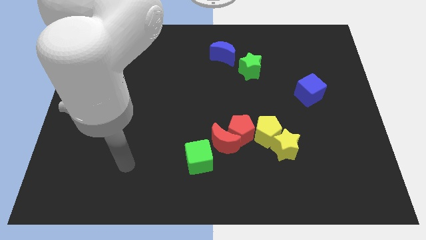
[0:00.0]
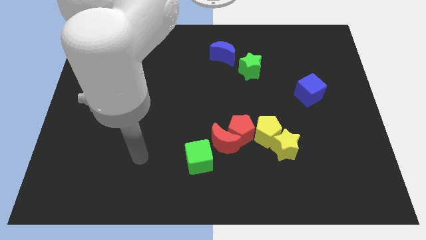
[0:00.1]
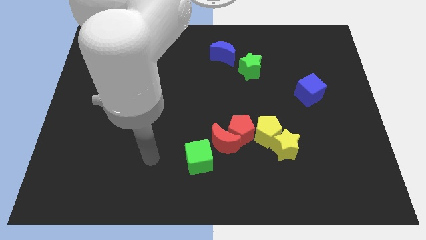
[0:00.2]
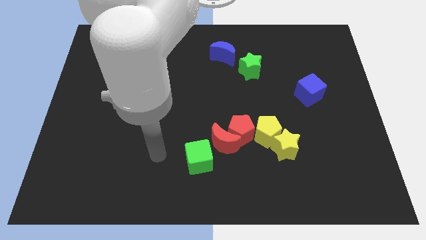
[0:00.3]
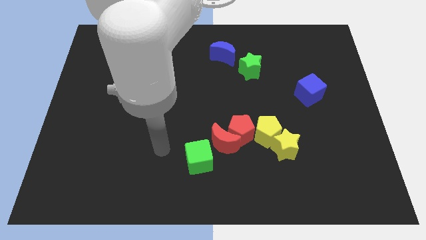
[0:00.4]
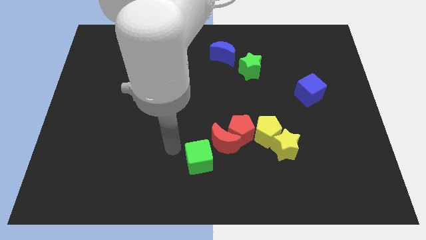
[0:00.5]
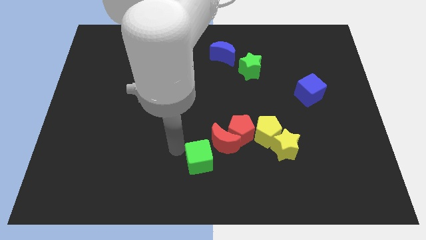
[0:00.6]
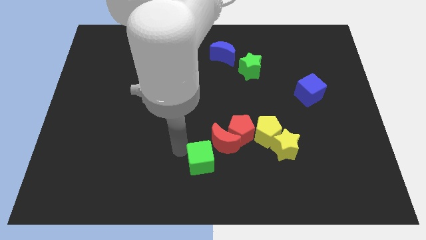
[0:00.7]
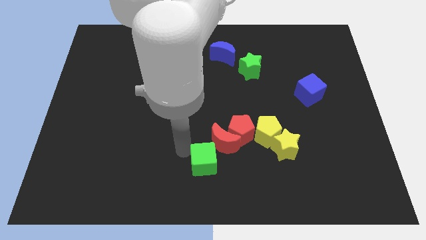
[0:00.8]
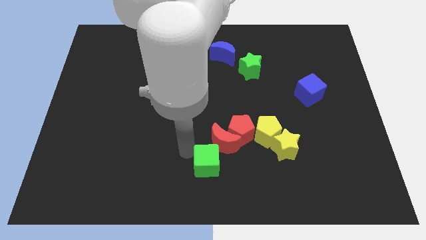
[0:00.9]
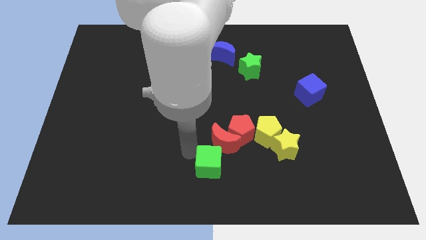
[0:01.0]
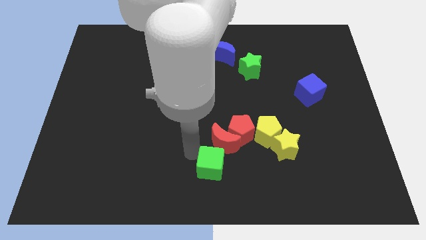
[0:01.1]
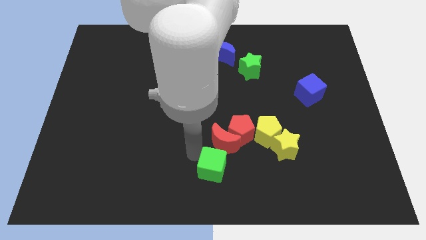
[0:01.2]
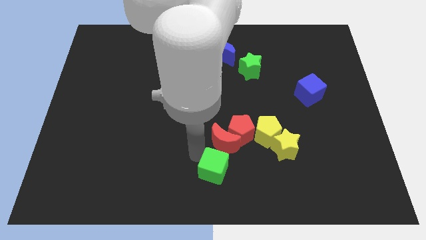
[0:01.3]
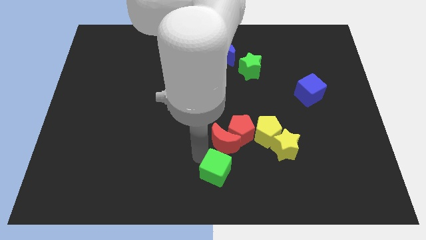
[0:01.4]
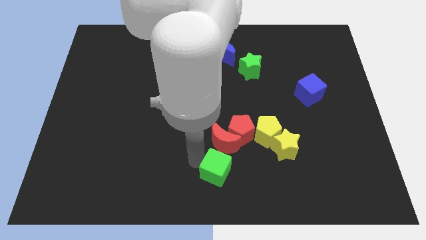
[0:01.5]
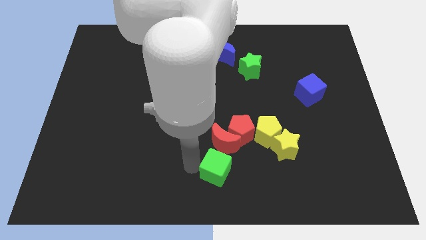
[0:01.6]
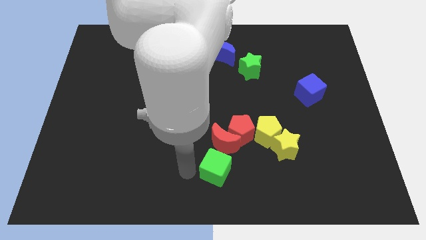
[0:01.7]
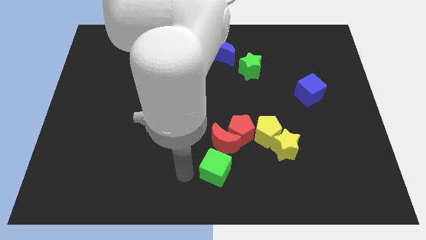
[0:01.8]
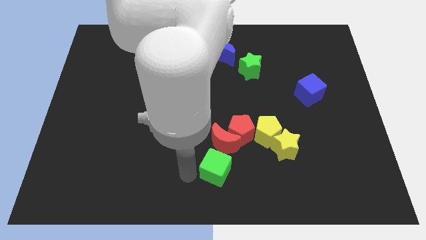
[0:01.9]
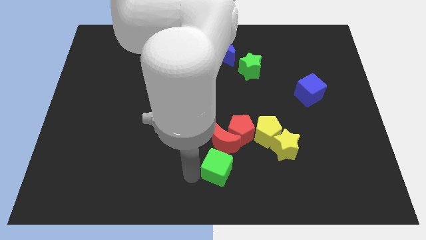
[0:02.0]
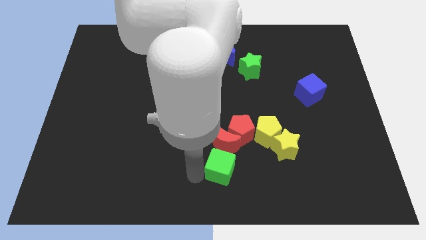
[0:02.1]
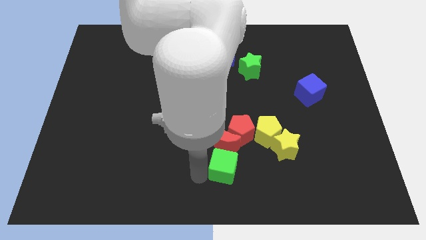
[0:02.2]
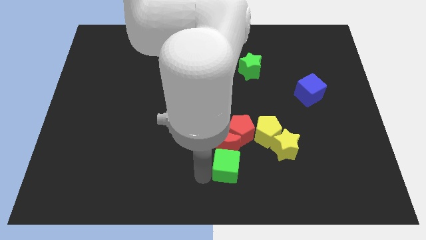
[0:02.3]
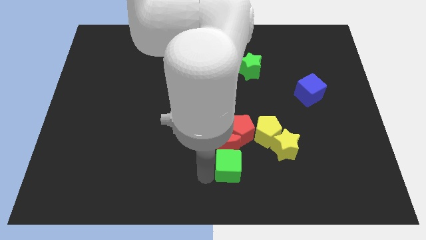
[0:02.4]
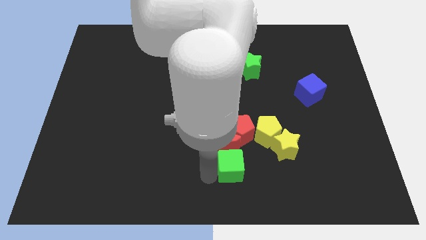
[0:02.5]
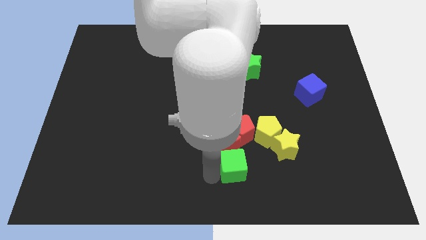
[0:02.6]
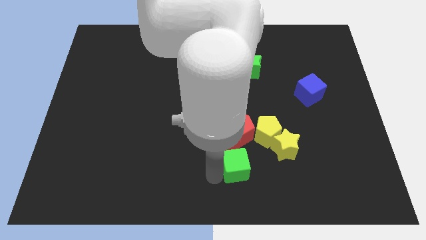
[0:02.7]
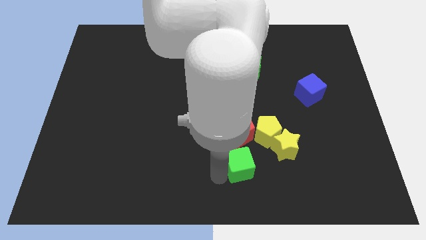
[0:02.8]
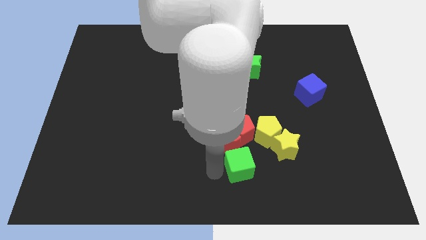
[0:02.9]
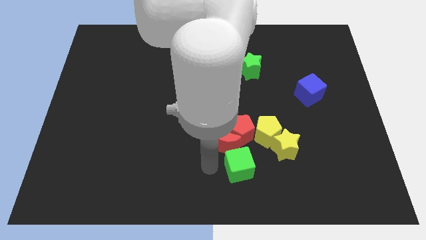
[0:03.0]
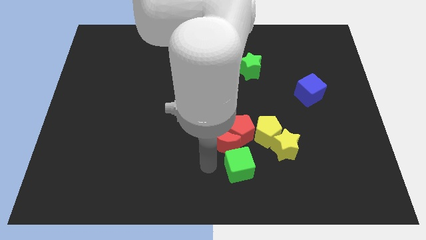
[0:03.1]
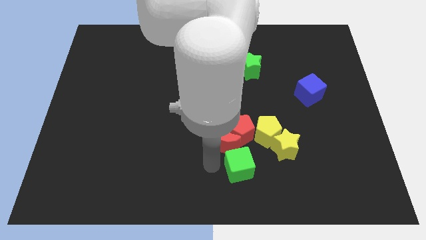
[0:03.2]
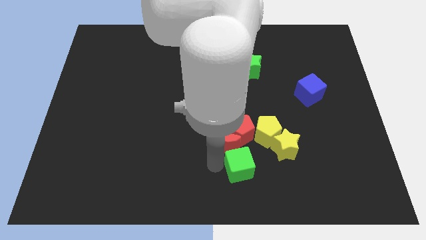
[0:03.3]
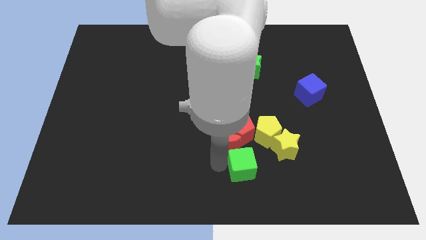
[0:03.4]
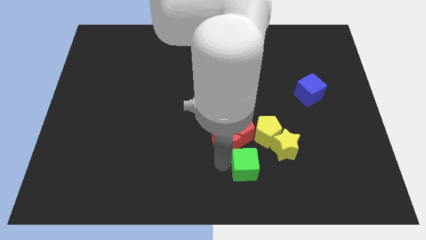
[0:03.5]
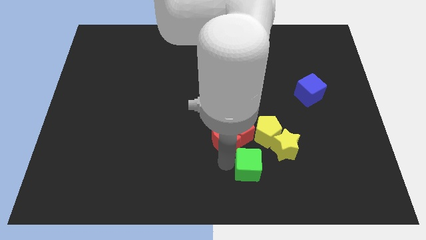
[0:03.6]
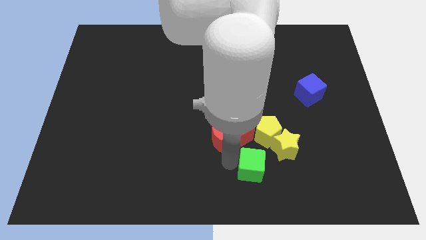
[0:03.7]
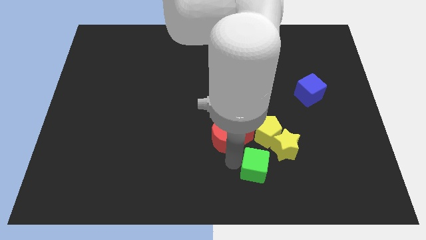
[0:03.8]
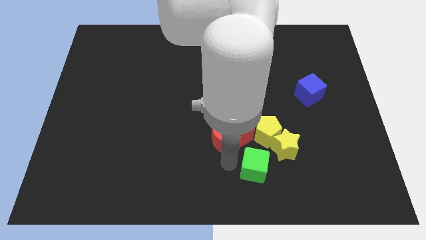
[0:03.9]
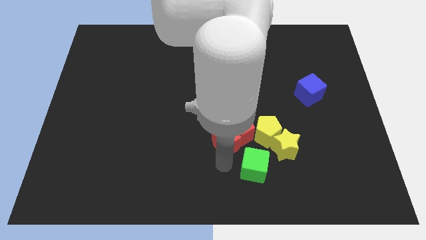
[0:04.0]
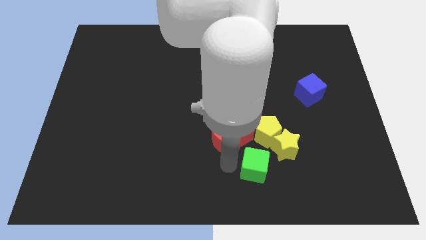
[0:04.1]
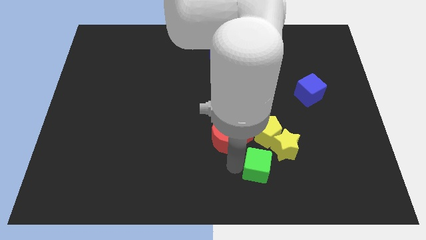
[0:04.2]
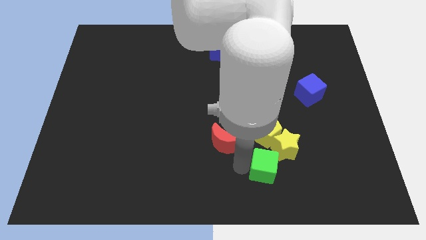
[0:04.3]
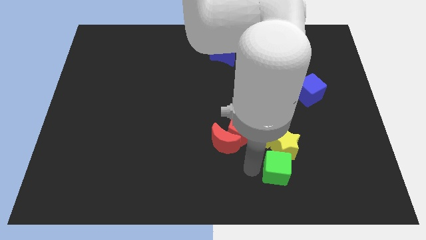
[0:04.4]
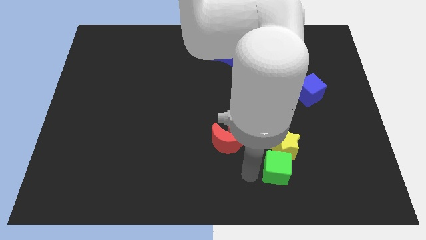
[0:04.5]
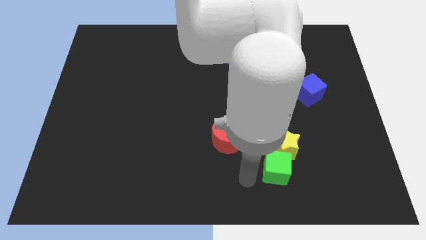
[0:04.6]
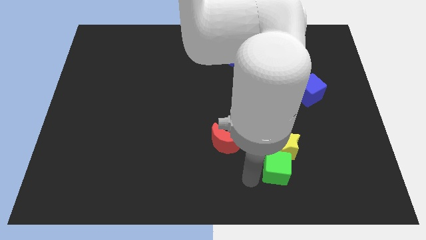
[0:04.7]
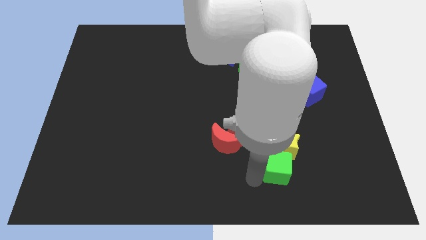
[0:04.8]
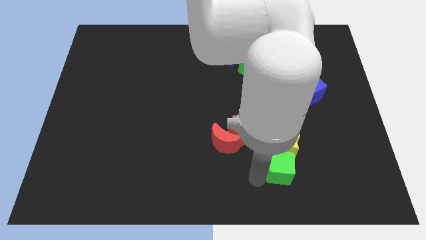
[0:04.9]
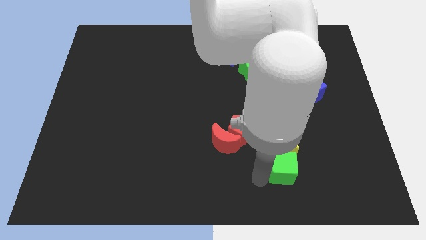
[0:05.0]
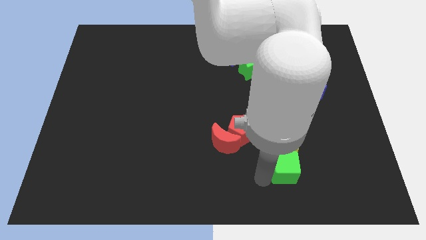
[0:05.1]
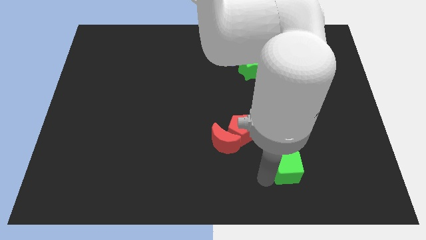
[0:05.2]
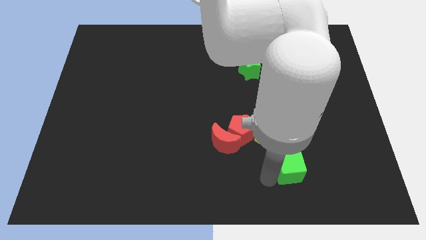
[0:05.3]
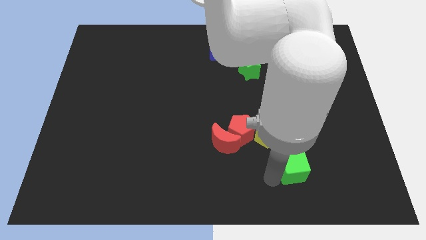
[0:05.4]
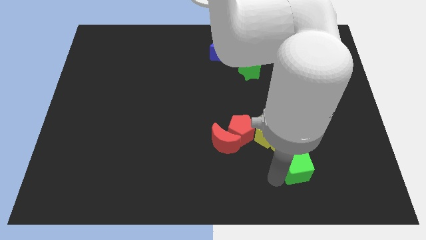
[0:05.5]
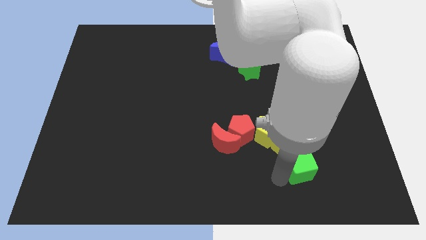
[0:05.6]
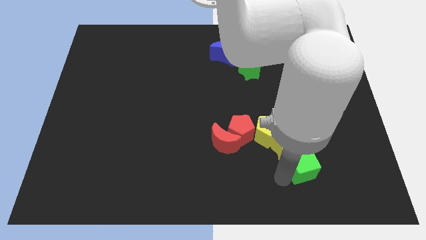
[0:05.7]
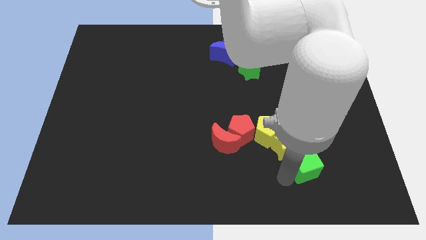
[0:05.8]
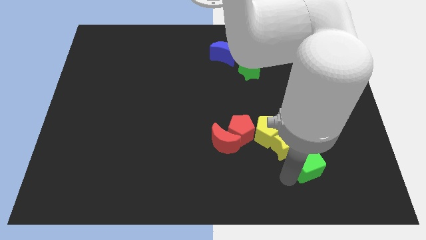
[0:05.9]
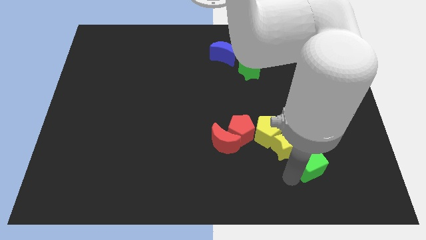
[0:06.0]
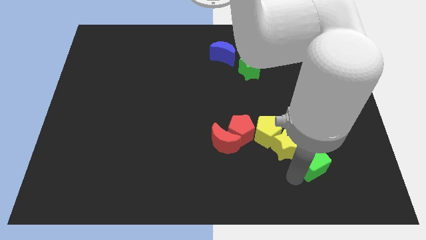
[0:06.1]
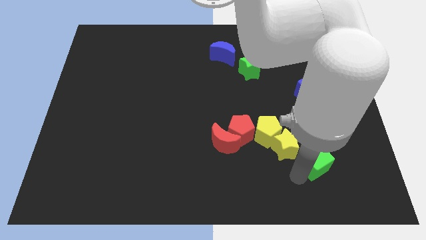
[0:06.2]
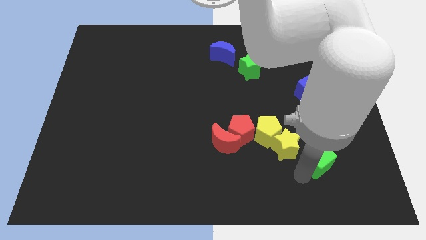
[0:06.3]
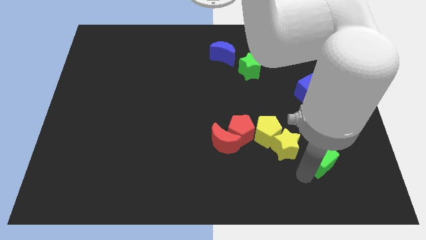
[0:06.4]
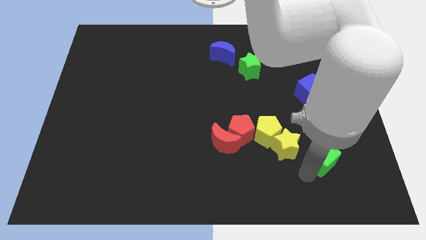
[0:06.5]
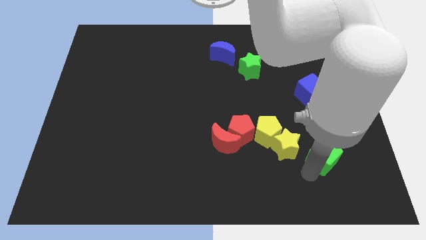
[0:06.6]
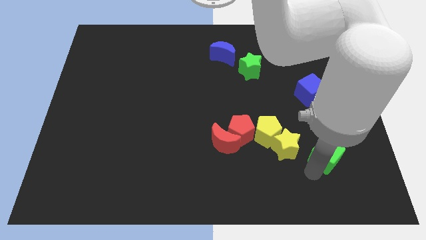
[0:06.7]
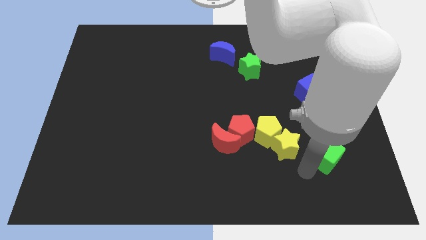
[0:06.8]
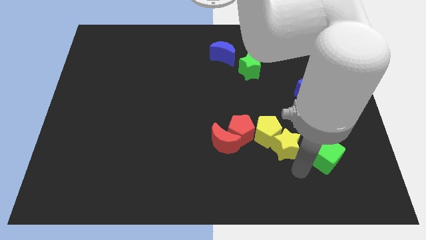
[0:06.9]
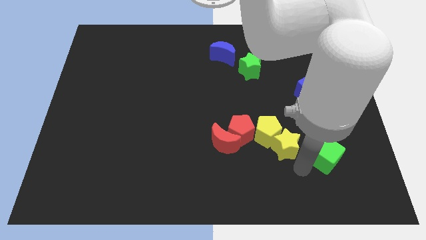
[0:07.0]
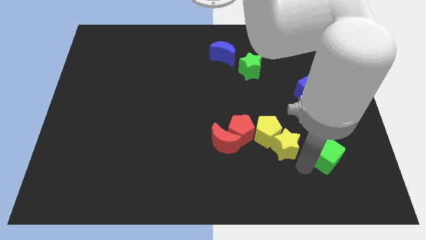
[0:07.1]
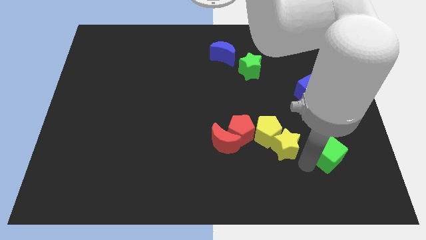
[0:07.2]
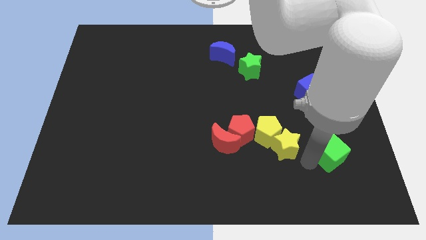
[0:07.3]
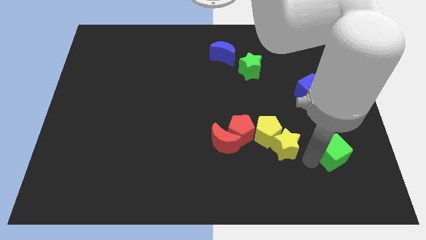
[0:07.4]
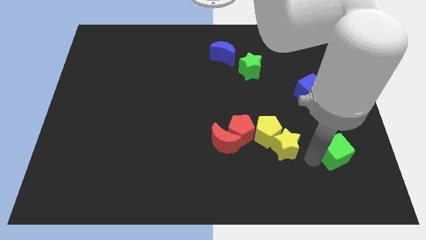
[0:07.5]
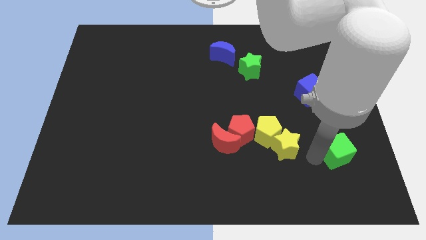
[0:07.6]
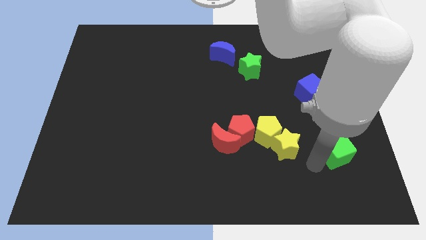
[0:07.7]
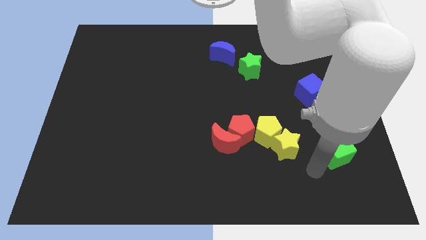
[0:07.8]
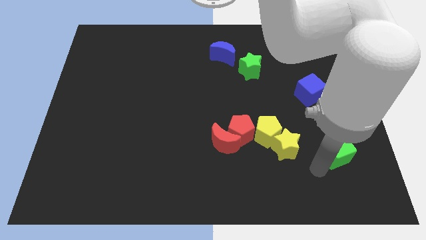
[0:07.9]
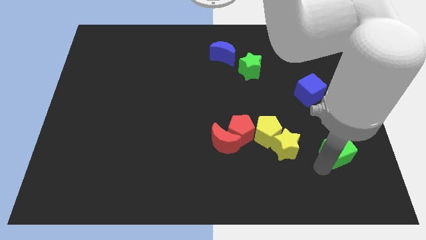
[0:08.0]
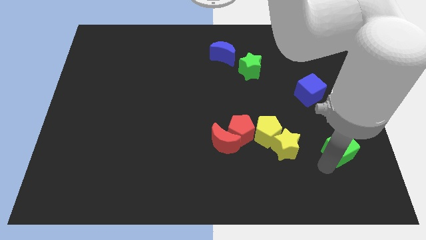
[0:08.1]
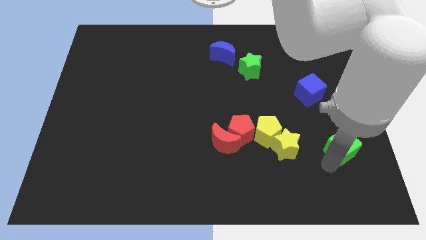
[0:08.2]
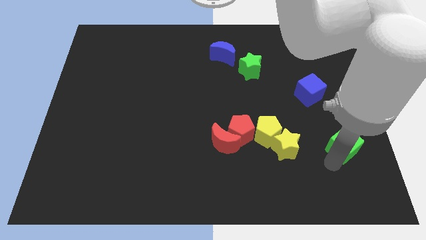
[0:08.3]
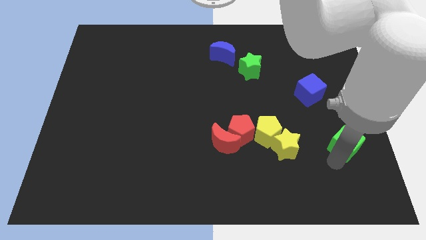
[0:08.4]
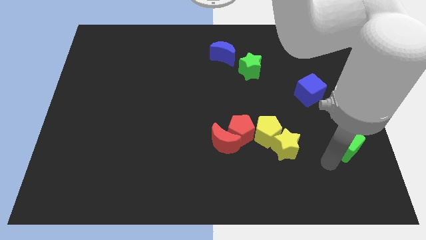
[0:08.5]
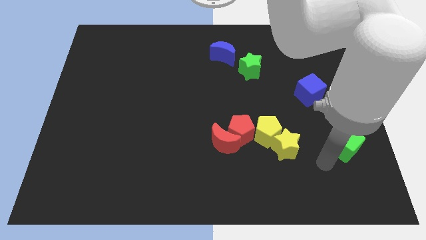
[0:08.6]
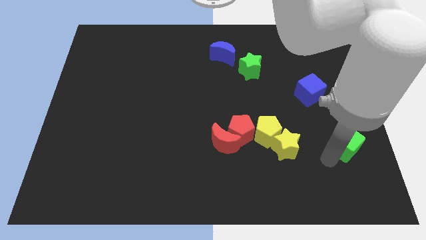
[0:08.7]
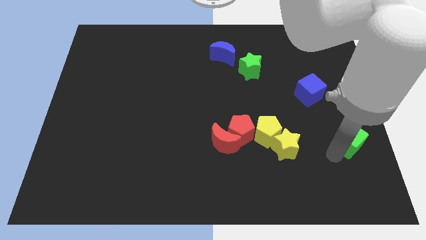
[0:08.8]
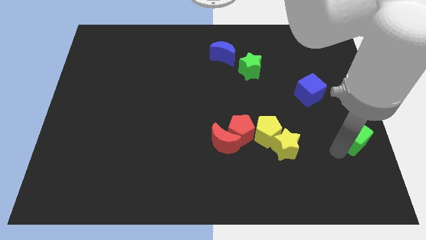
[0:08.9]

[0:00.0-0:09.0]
push the green cube to the center right
